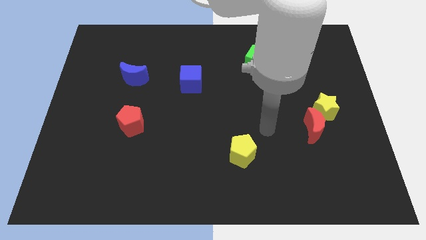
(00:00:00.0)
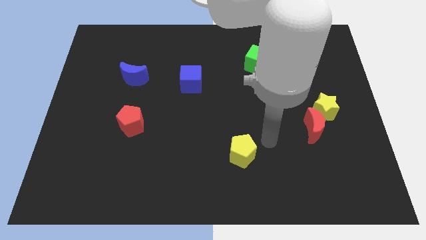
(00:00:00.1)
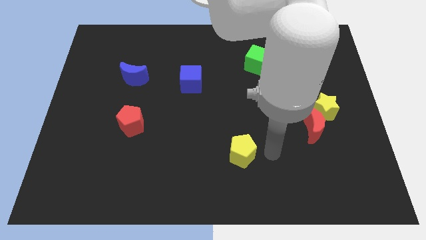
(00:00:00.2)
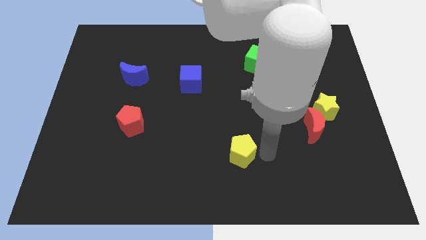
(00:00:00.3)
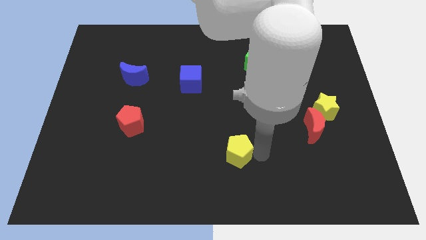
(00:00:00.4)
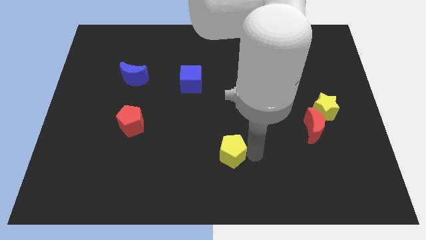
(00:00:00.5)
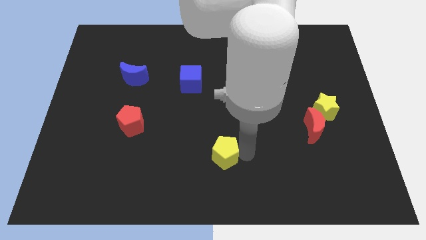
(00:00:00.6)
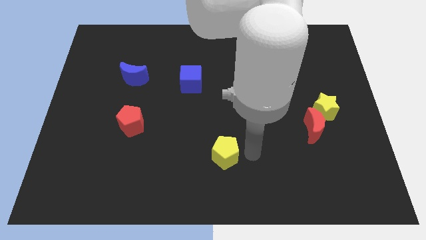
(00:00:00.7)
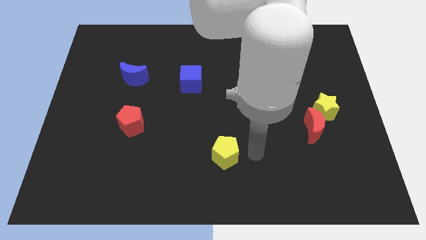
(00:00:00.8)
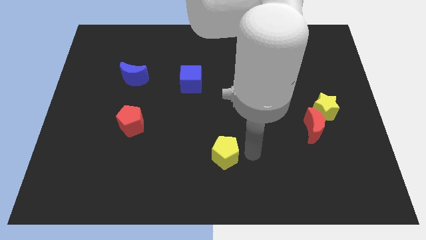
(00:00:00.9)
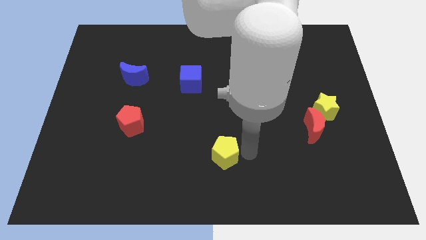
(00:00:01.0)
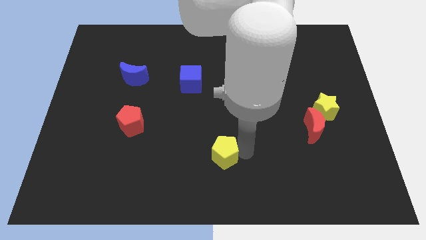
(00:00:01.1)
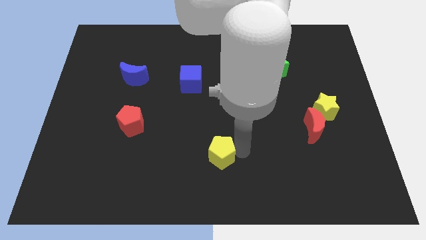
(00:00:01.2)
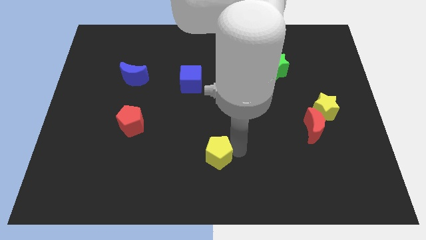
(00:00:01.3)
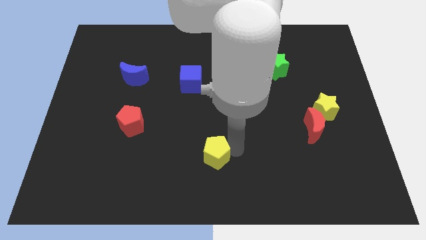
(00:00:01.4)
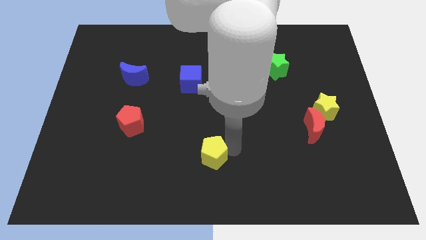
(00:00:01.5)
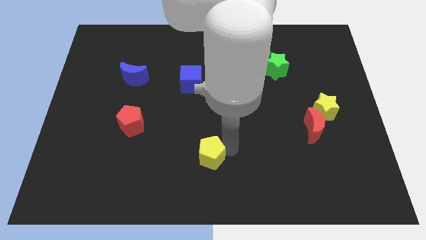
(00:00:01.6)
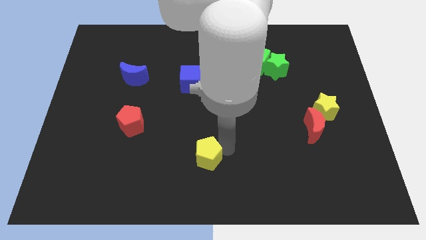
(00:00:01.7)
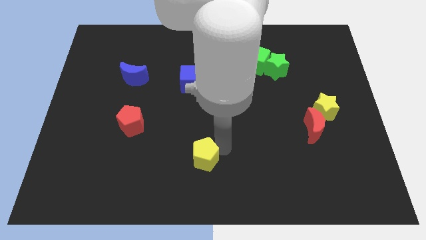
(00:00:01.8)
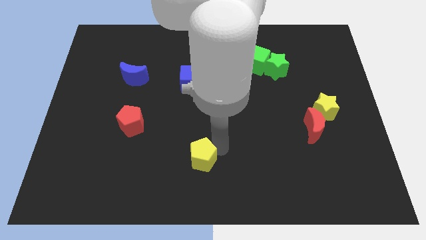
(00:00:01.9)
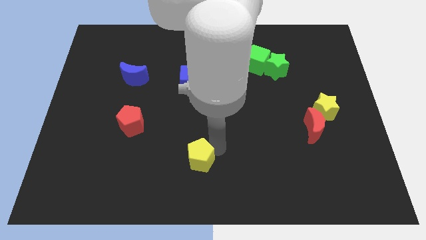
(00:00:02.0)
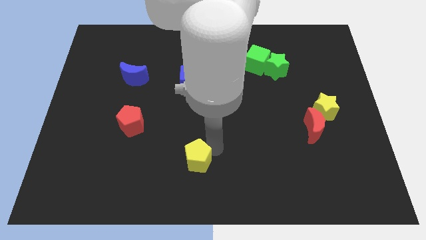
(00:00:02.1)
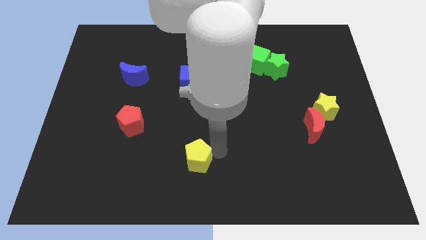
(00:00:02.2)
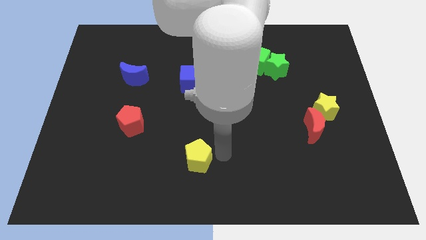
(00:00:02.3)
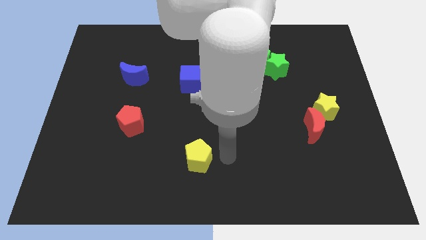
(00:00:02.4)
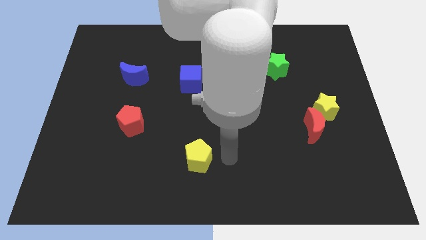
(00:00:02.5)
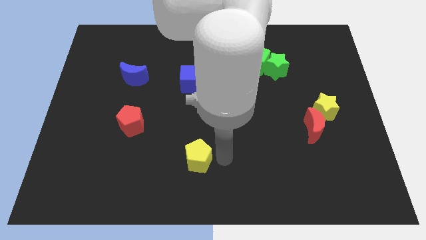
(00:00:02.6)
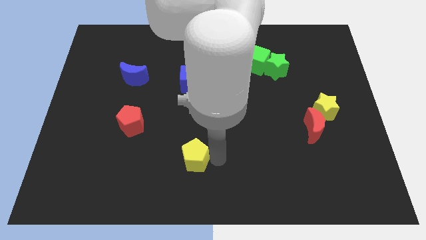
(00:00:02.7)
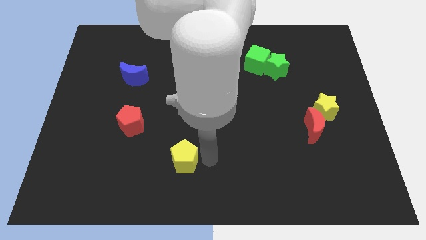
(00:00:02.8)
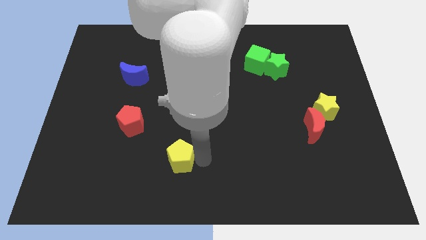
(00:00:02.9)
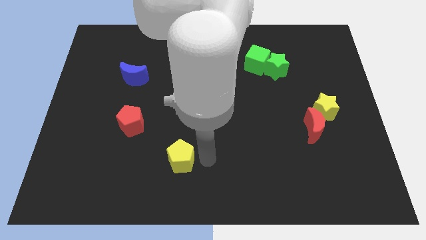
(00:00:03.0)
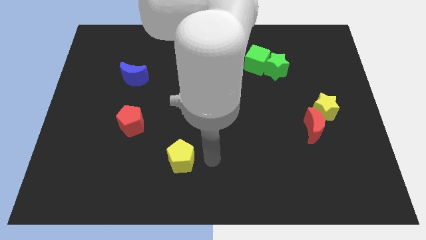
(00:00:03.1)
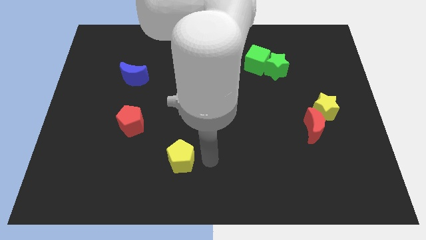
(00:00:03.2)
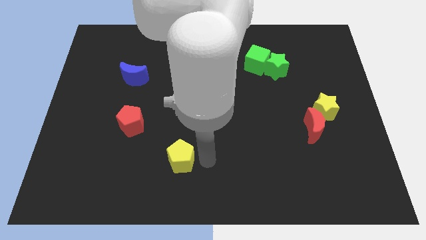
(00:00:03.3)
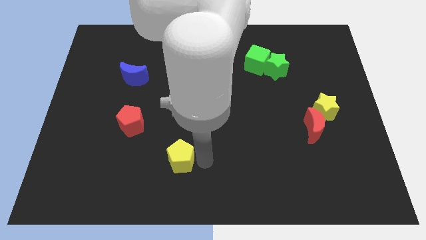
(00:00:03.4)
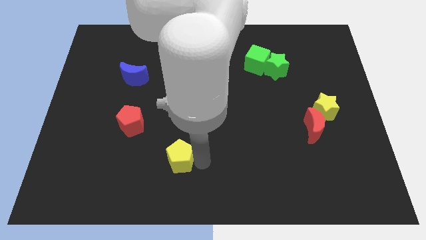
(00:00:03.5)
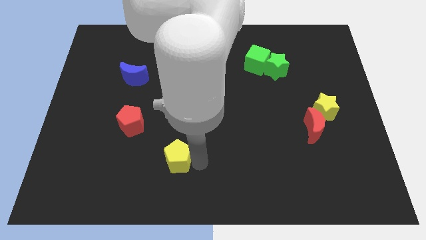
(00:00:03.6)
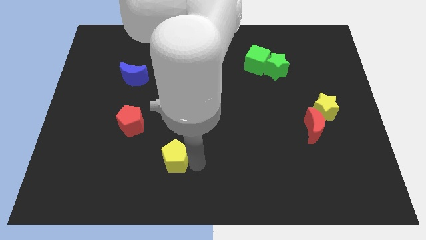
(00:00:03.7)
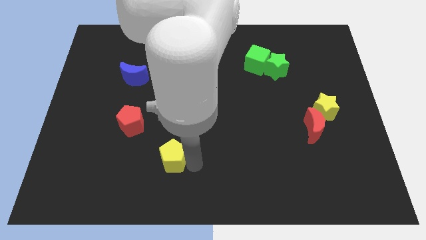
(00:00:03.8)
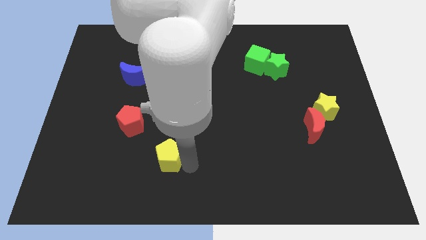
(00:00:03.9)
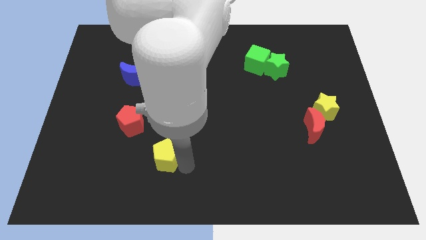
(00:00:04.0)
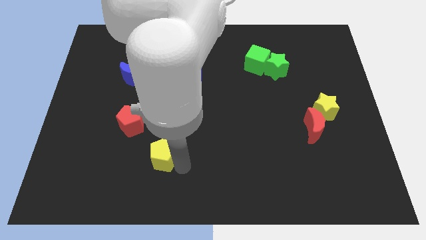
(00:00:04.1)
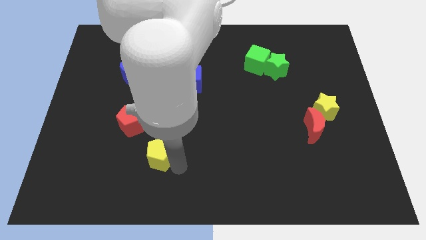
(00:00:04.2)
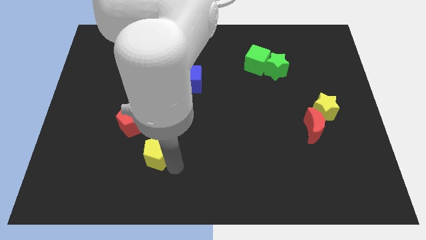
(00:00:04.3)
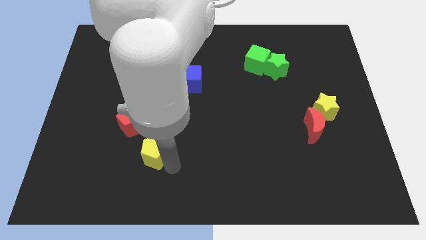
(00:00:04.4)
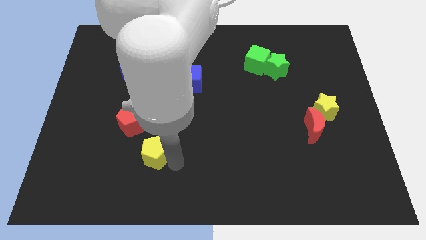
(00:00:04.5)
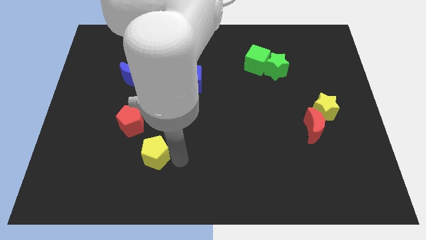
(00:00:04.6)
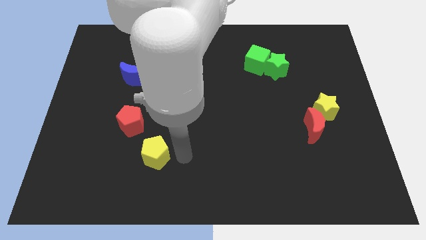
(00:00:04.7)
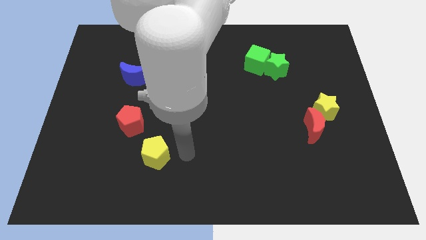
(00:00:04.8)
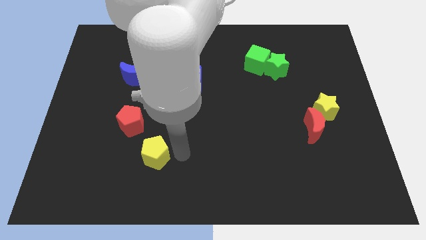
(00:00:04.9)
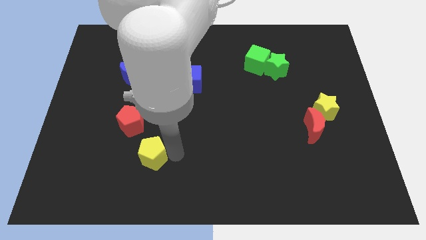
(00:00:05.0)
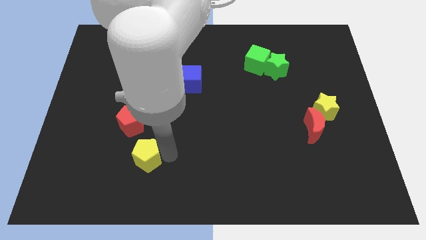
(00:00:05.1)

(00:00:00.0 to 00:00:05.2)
push the yellow pentagon to the left

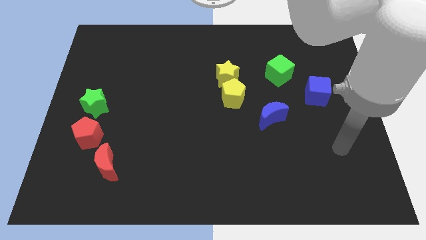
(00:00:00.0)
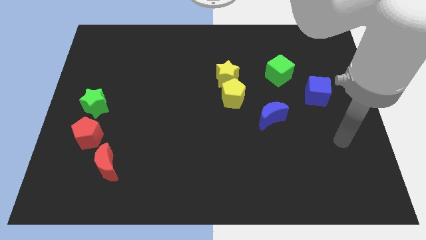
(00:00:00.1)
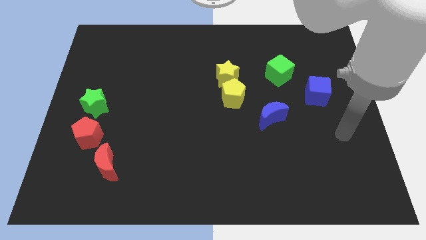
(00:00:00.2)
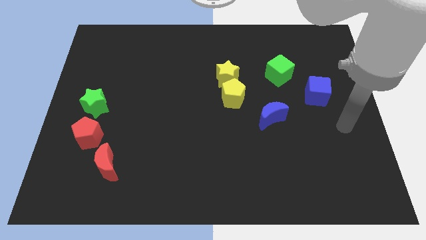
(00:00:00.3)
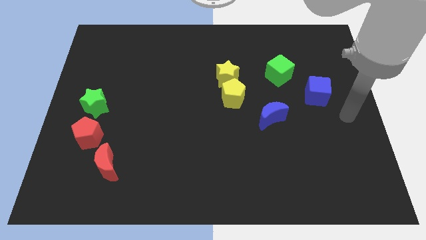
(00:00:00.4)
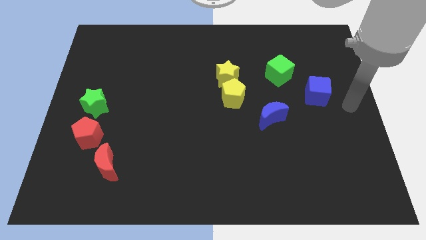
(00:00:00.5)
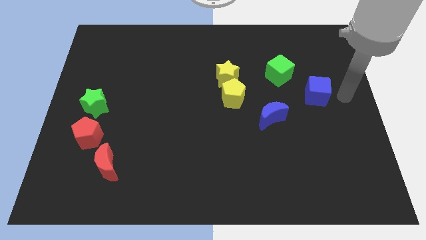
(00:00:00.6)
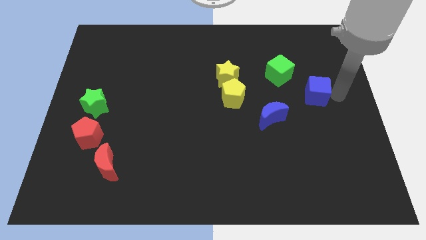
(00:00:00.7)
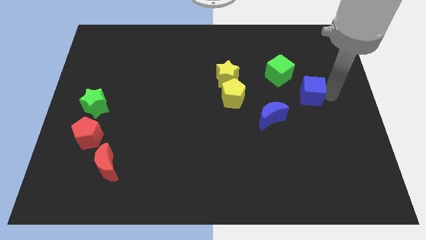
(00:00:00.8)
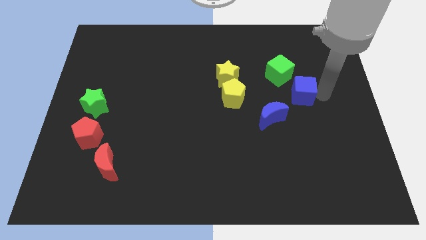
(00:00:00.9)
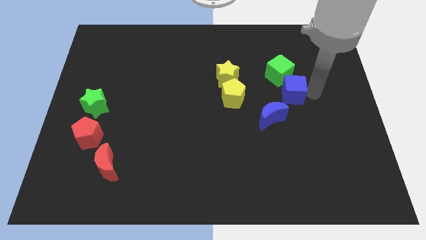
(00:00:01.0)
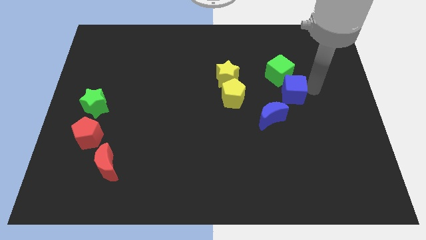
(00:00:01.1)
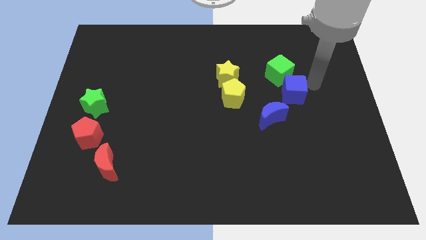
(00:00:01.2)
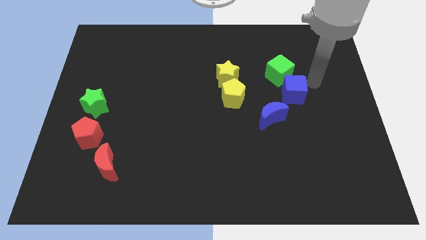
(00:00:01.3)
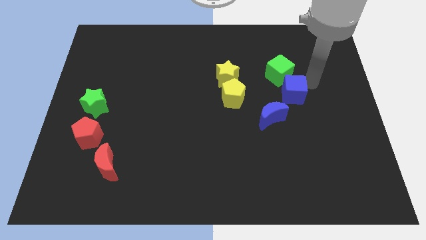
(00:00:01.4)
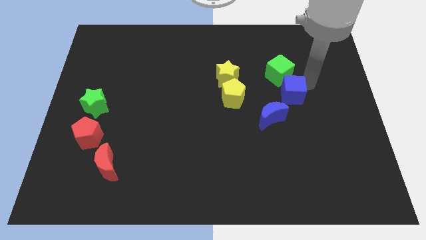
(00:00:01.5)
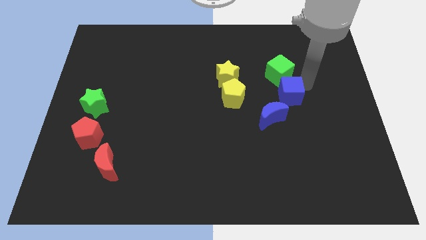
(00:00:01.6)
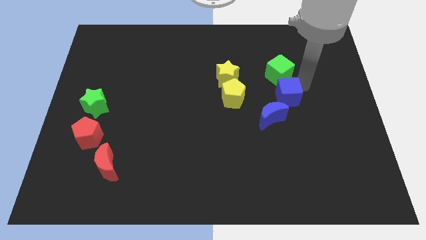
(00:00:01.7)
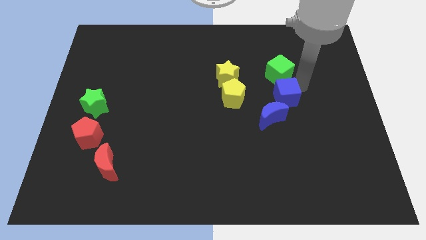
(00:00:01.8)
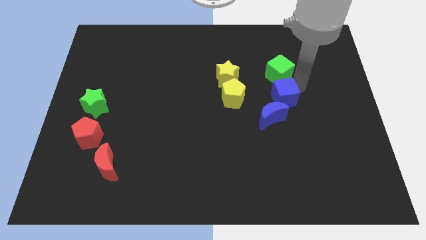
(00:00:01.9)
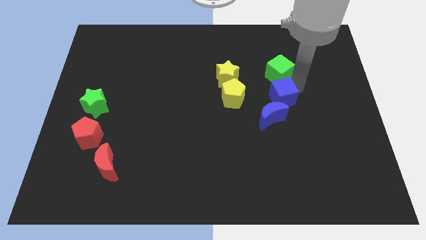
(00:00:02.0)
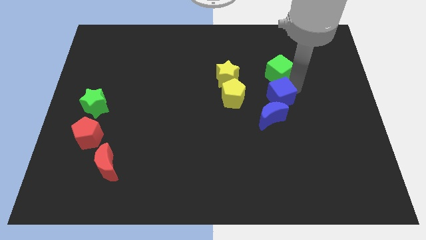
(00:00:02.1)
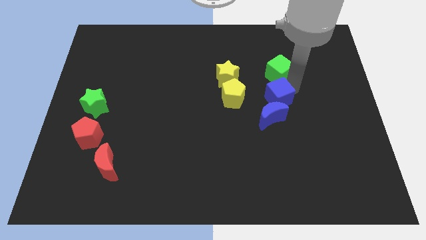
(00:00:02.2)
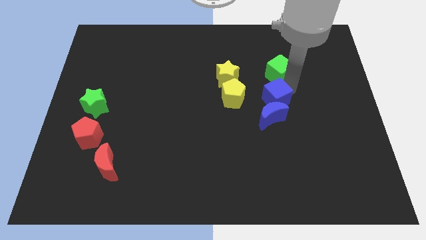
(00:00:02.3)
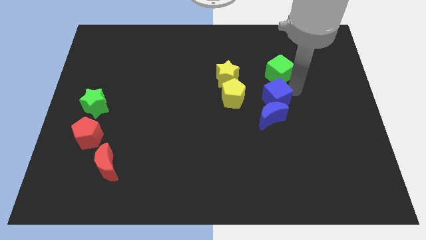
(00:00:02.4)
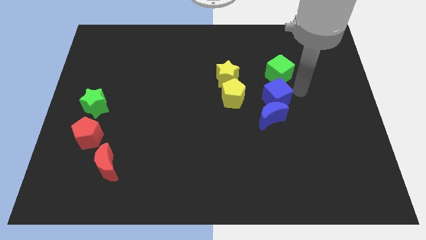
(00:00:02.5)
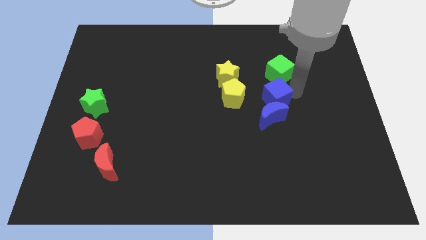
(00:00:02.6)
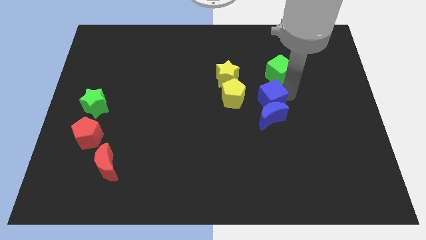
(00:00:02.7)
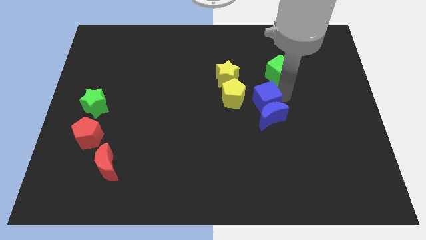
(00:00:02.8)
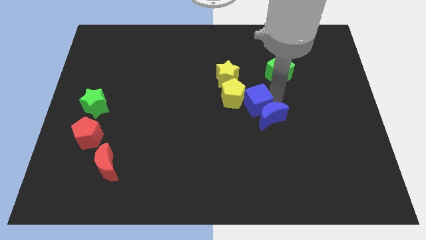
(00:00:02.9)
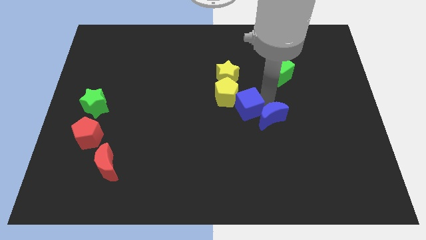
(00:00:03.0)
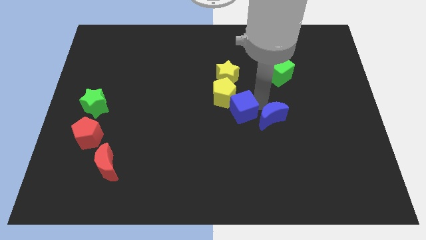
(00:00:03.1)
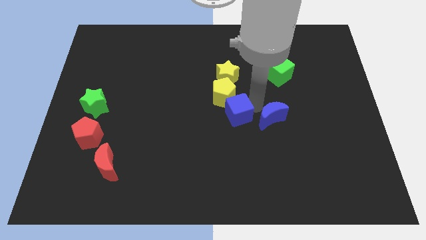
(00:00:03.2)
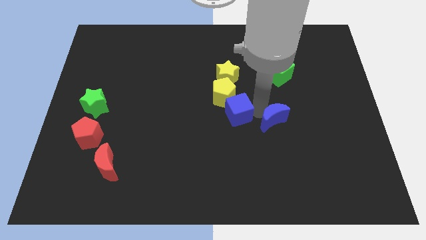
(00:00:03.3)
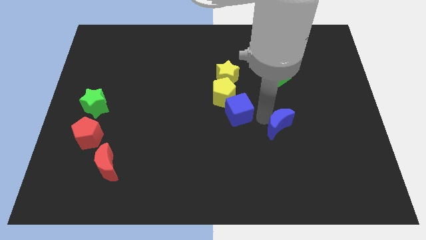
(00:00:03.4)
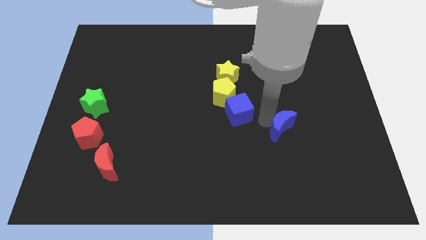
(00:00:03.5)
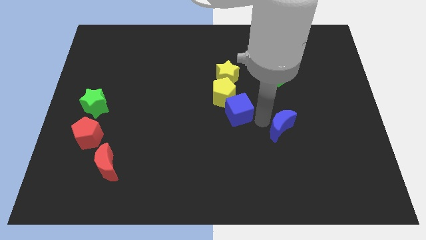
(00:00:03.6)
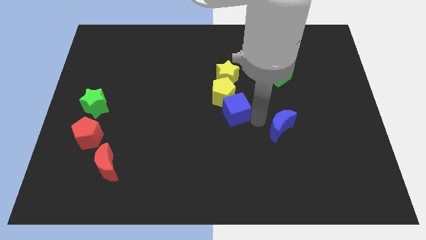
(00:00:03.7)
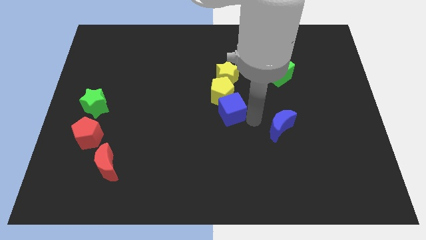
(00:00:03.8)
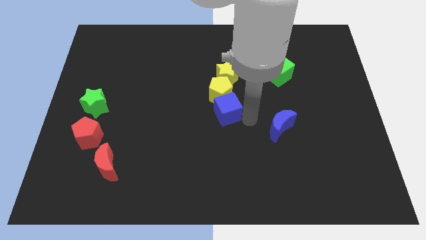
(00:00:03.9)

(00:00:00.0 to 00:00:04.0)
push the blue cube left
